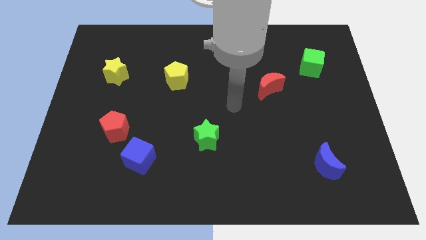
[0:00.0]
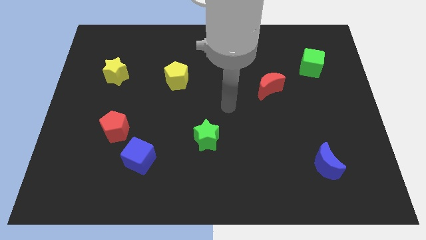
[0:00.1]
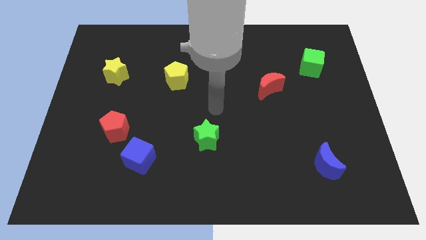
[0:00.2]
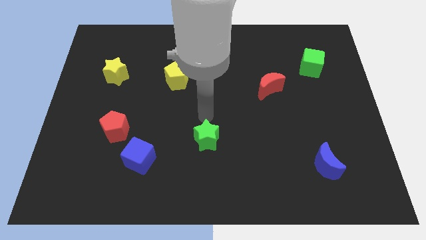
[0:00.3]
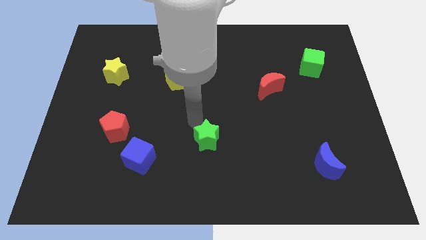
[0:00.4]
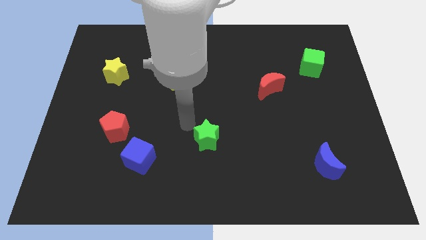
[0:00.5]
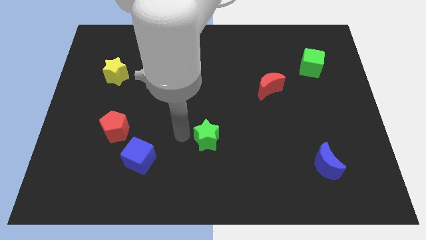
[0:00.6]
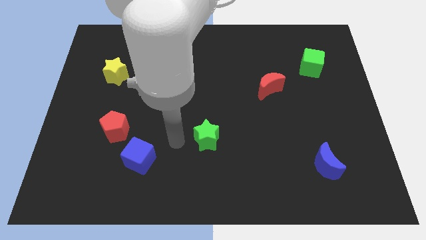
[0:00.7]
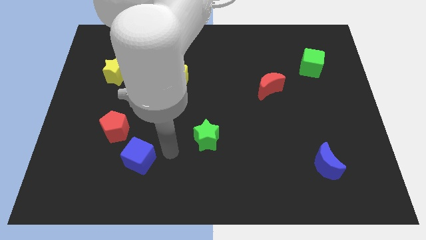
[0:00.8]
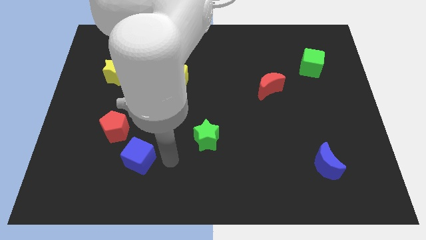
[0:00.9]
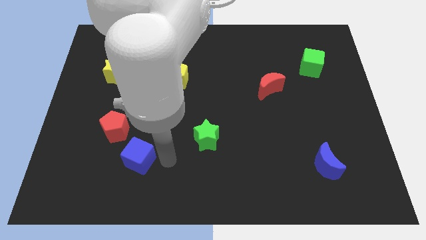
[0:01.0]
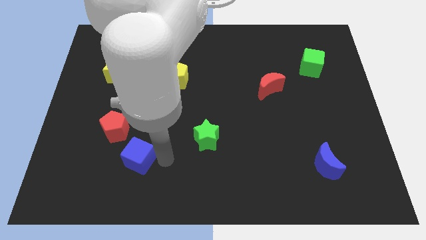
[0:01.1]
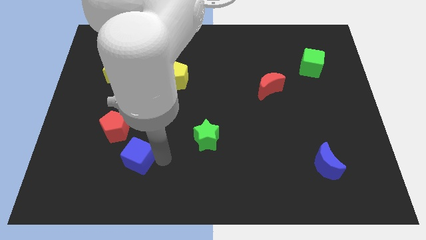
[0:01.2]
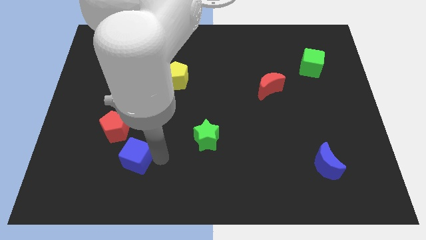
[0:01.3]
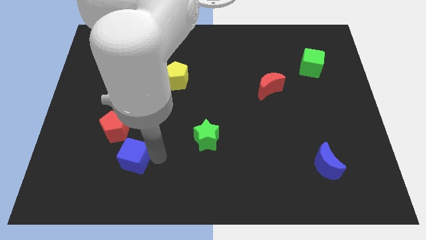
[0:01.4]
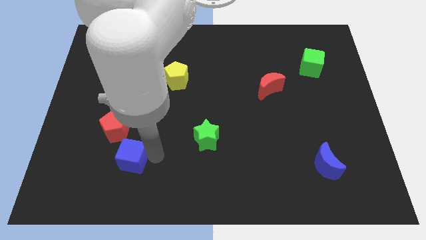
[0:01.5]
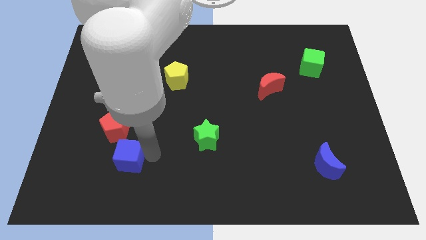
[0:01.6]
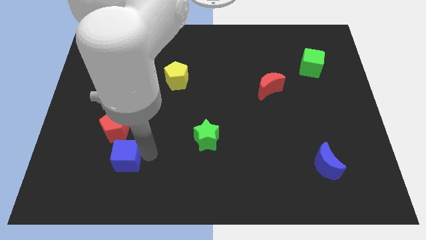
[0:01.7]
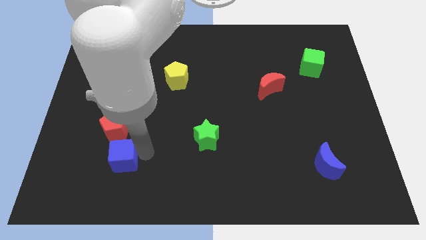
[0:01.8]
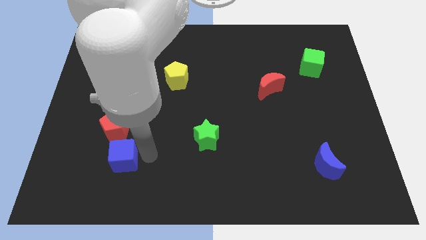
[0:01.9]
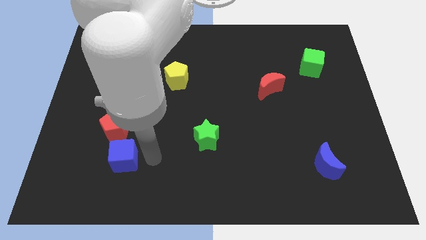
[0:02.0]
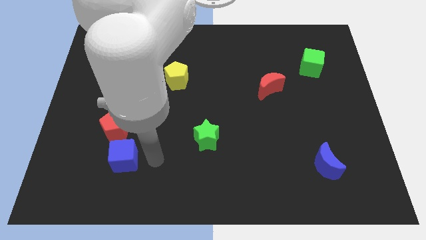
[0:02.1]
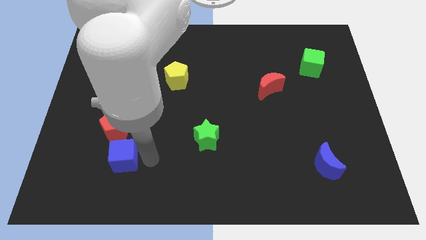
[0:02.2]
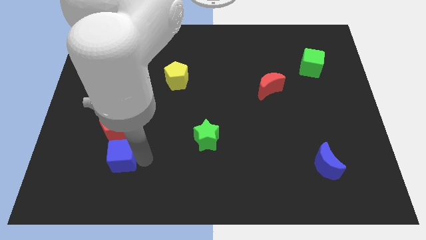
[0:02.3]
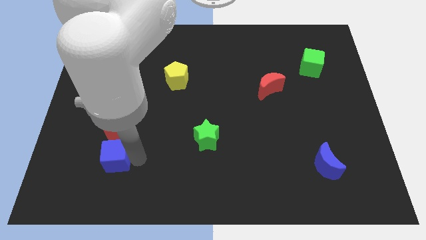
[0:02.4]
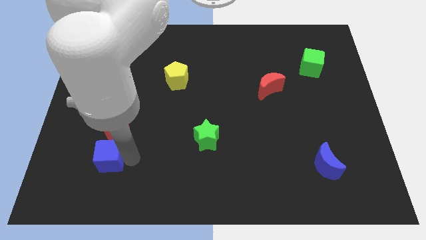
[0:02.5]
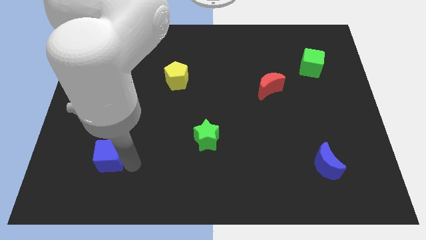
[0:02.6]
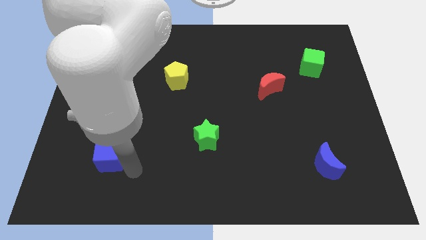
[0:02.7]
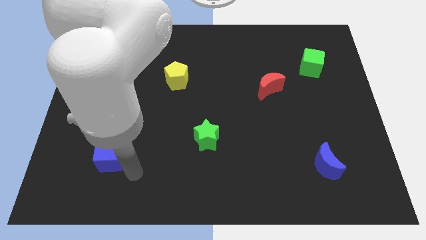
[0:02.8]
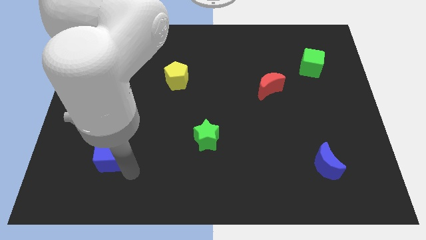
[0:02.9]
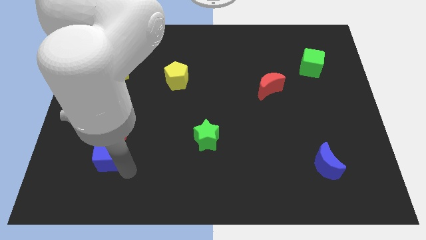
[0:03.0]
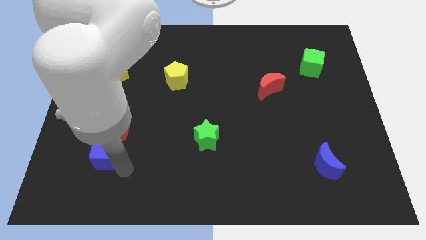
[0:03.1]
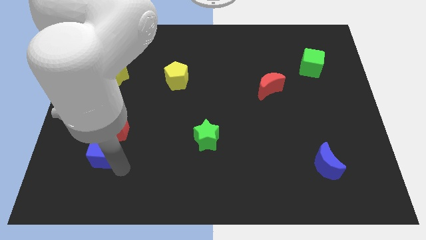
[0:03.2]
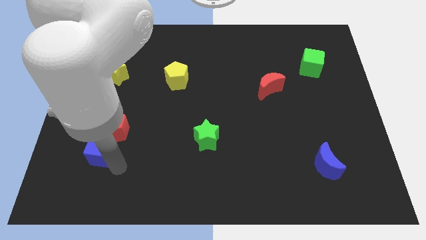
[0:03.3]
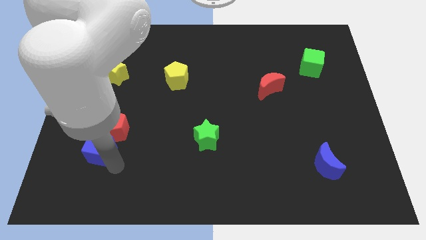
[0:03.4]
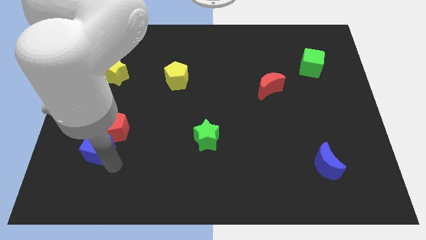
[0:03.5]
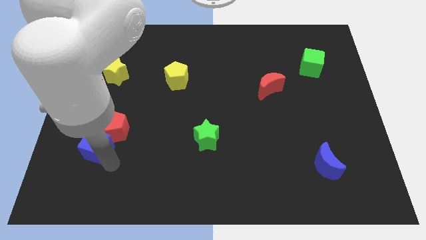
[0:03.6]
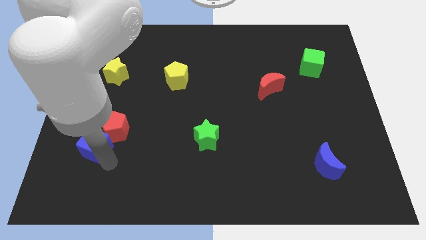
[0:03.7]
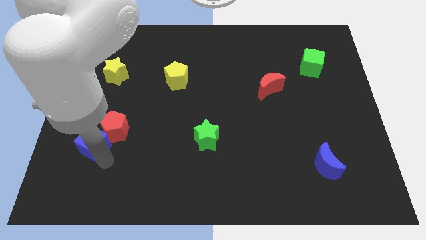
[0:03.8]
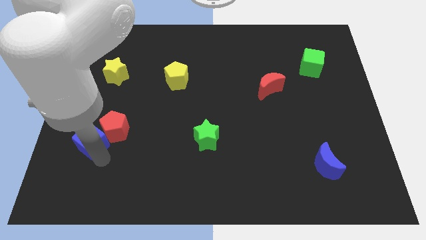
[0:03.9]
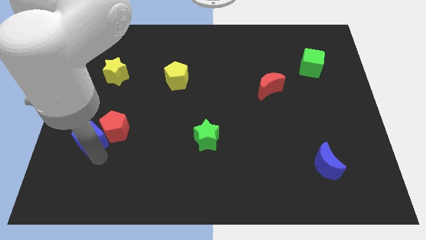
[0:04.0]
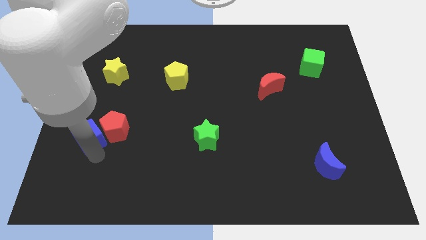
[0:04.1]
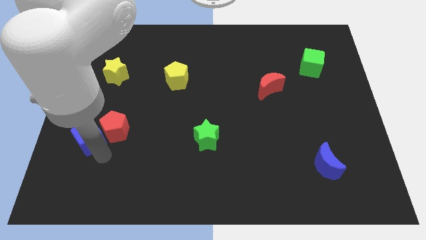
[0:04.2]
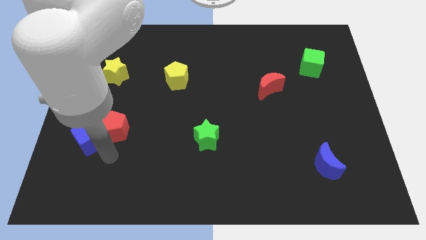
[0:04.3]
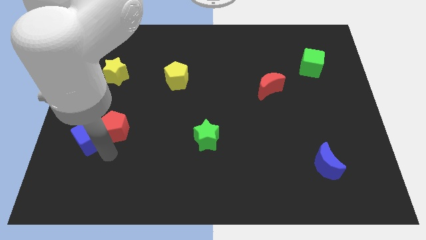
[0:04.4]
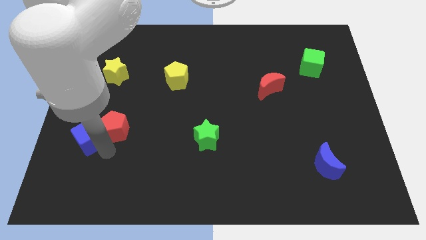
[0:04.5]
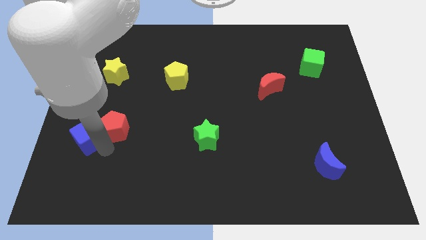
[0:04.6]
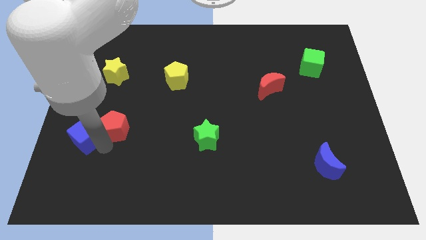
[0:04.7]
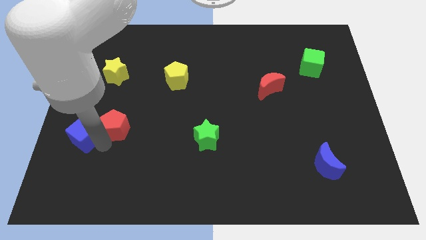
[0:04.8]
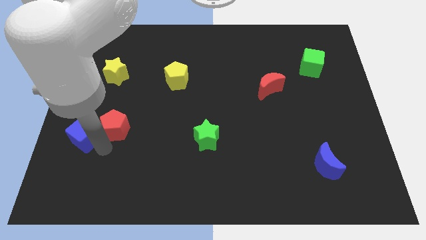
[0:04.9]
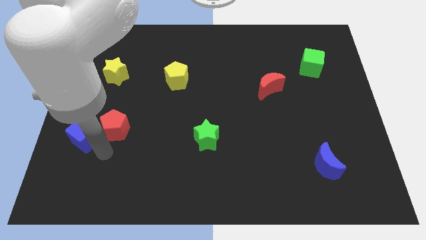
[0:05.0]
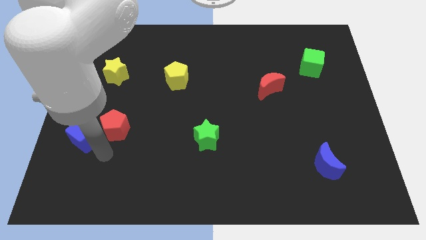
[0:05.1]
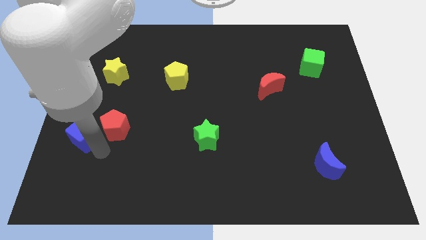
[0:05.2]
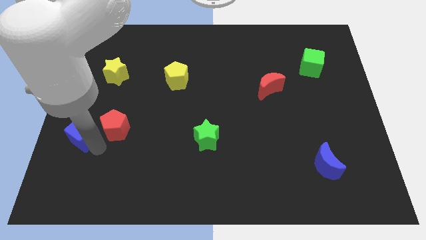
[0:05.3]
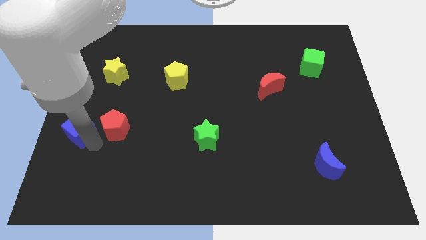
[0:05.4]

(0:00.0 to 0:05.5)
put the blue cube to the left side of the board

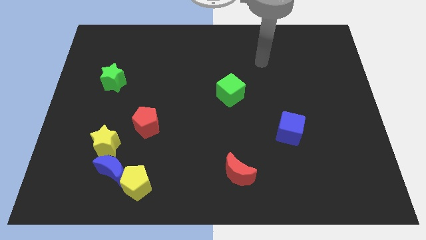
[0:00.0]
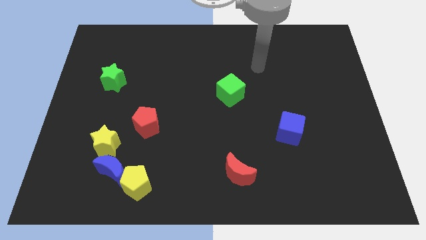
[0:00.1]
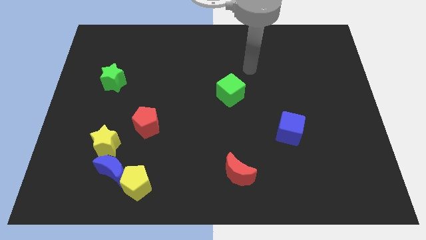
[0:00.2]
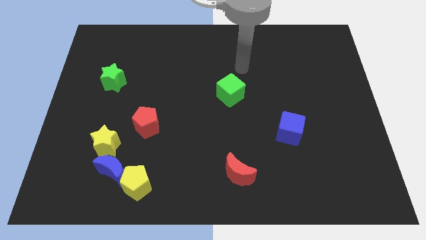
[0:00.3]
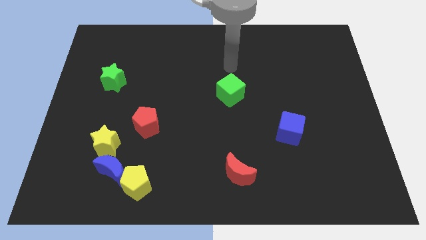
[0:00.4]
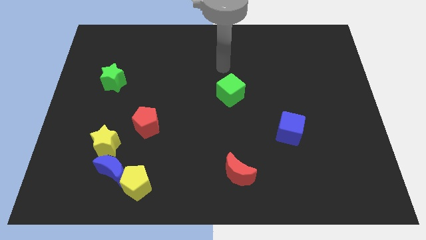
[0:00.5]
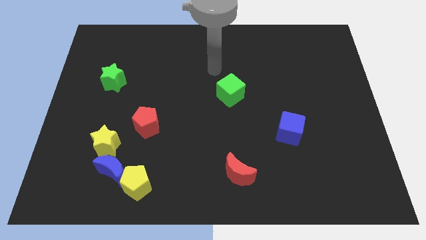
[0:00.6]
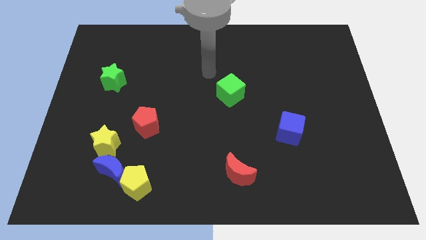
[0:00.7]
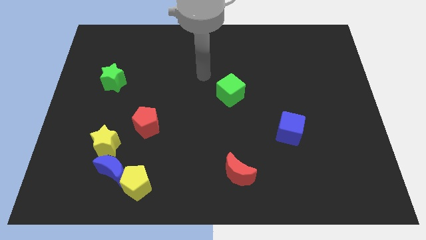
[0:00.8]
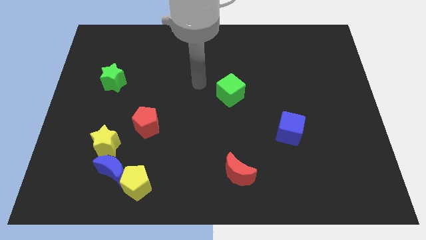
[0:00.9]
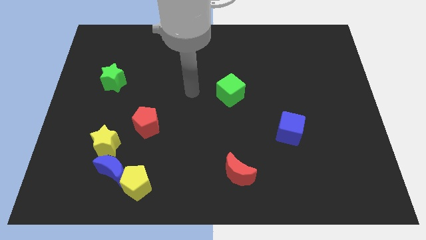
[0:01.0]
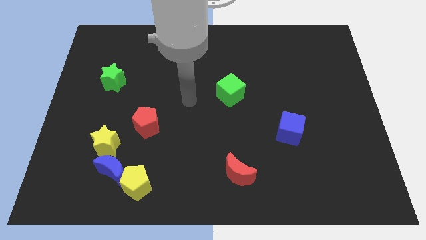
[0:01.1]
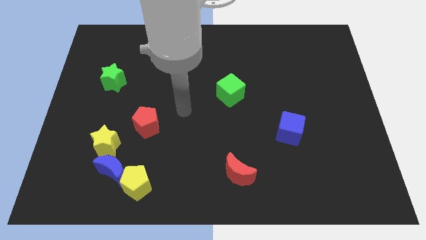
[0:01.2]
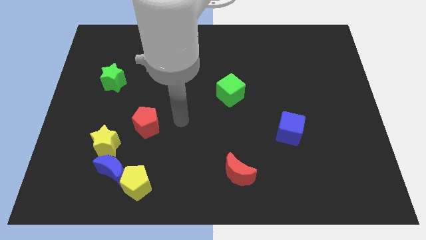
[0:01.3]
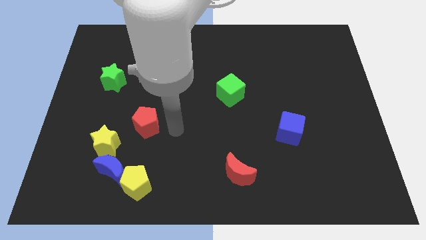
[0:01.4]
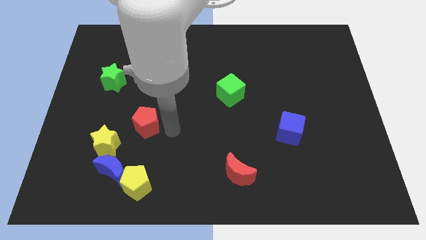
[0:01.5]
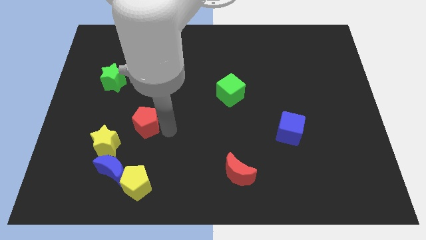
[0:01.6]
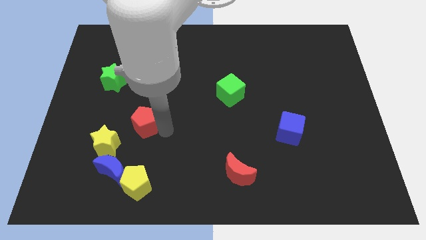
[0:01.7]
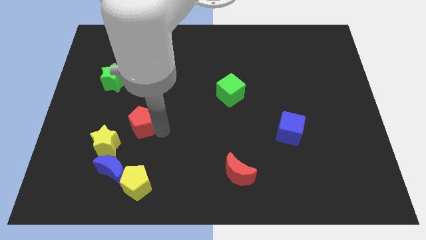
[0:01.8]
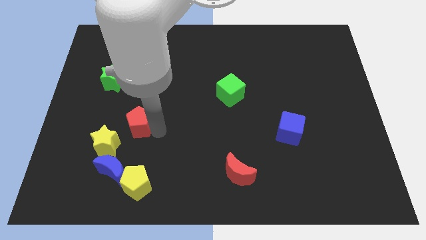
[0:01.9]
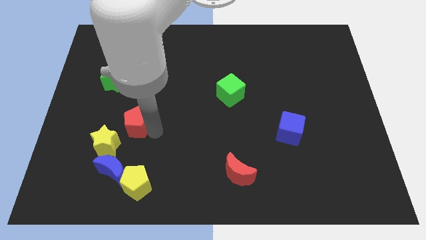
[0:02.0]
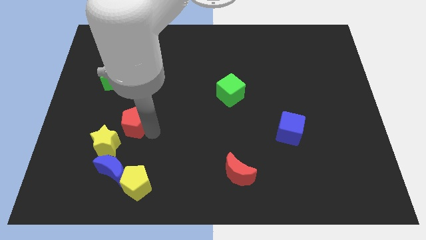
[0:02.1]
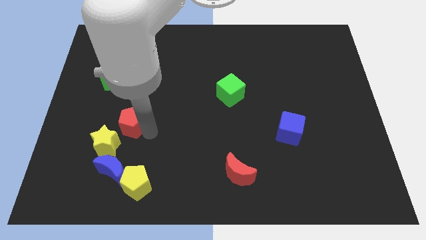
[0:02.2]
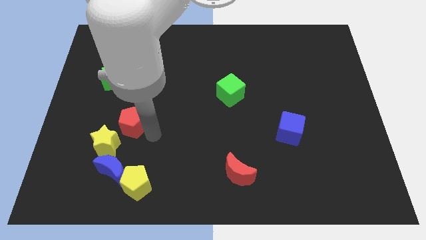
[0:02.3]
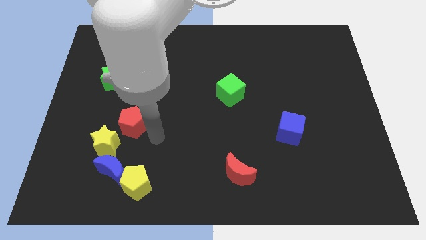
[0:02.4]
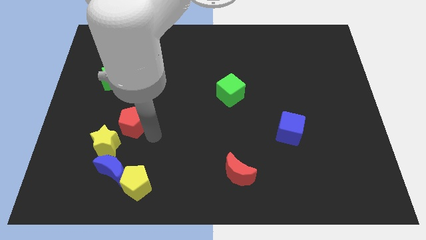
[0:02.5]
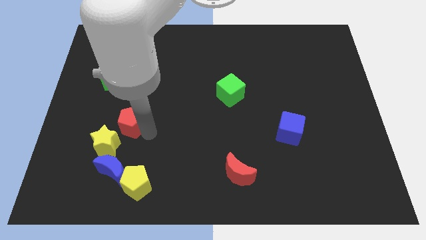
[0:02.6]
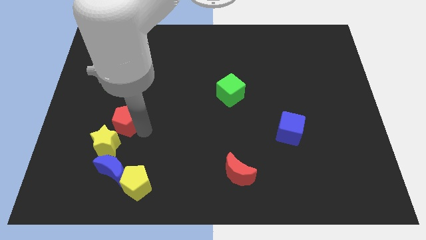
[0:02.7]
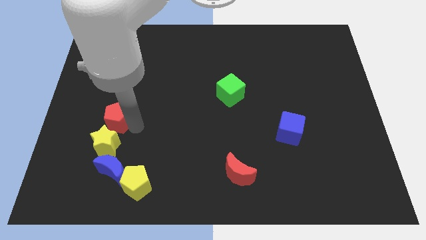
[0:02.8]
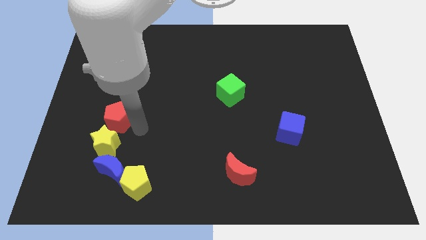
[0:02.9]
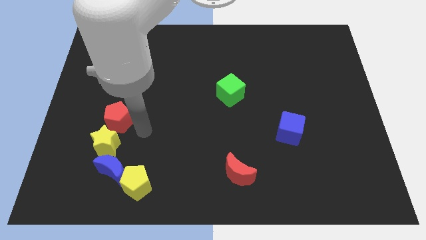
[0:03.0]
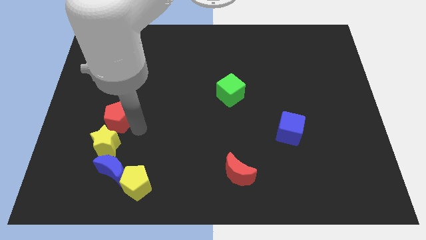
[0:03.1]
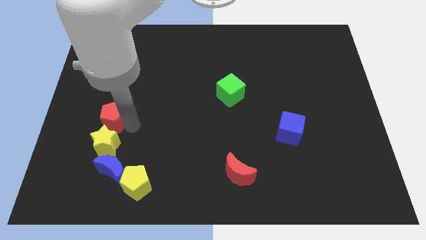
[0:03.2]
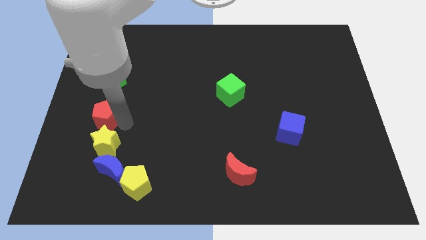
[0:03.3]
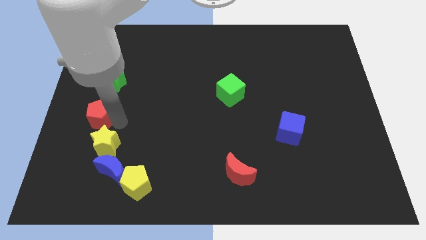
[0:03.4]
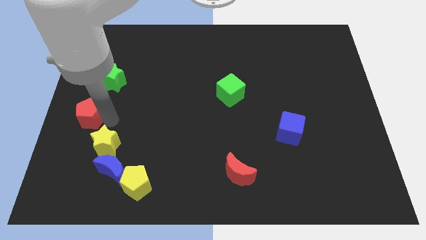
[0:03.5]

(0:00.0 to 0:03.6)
slide the red pentagon to the center left
